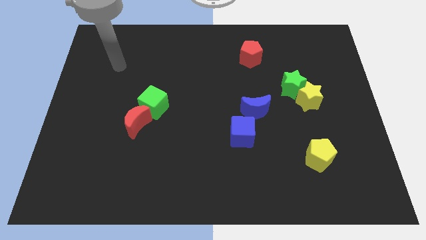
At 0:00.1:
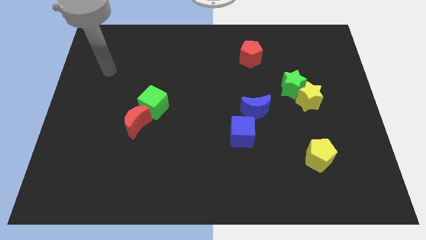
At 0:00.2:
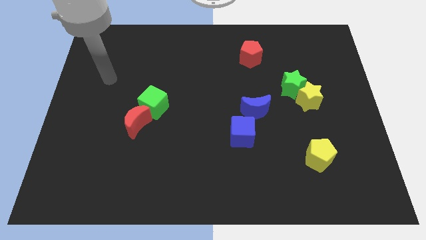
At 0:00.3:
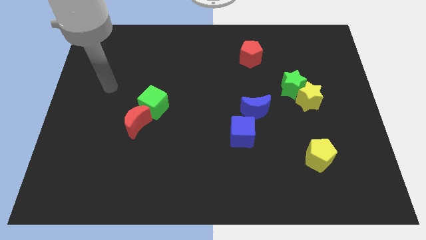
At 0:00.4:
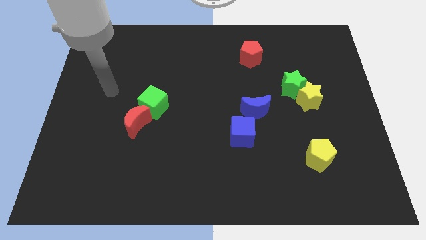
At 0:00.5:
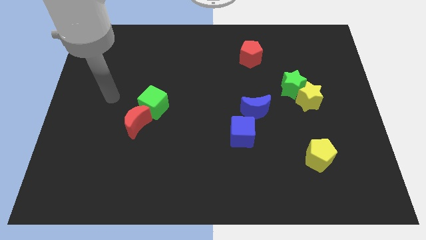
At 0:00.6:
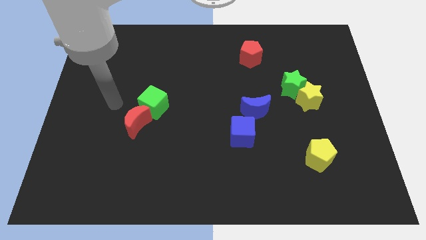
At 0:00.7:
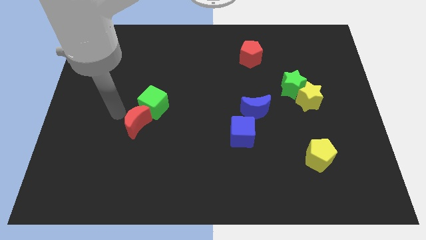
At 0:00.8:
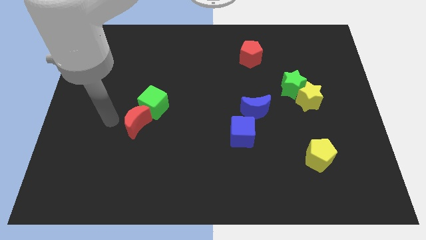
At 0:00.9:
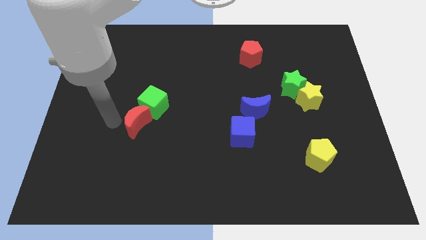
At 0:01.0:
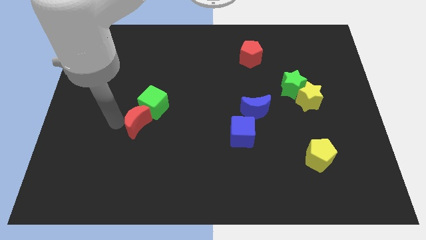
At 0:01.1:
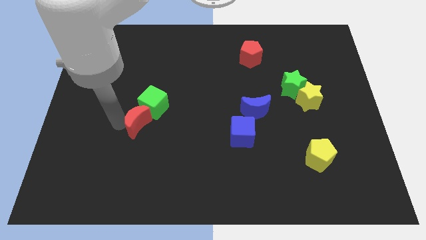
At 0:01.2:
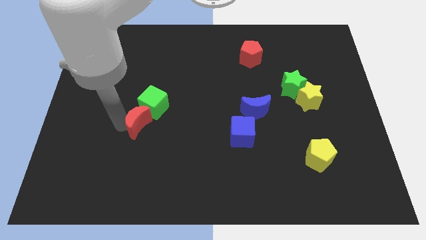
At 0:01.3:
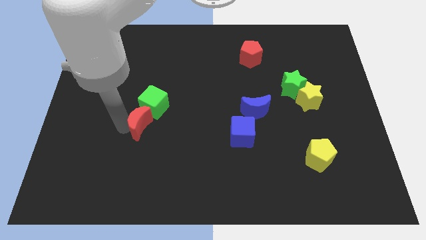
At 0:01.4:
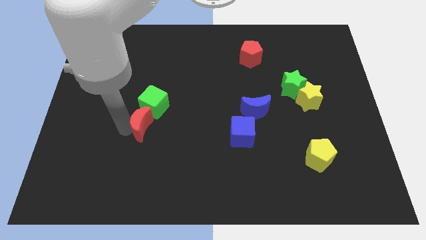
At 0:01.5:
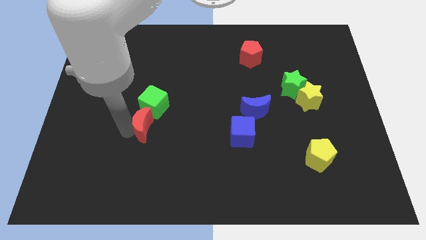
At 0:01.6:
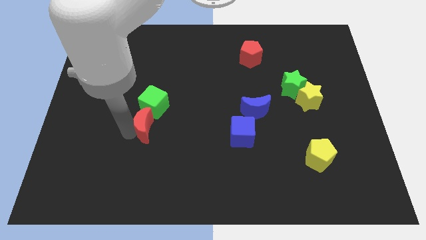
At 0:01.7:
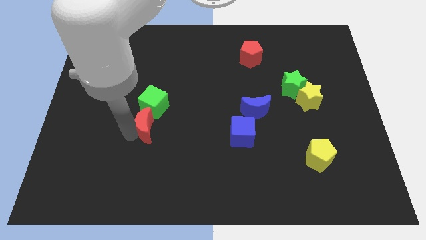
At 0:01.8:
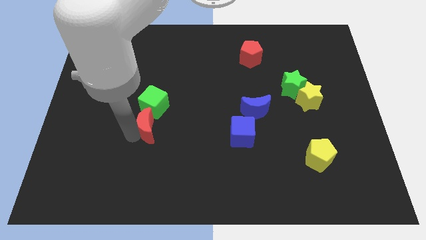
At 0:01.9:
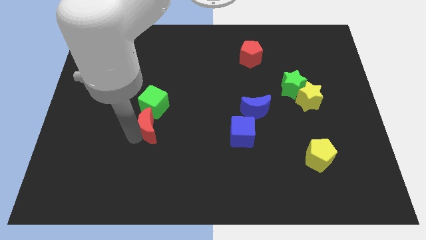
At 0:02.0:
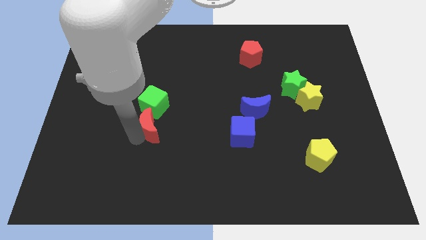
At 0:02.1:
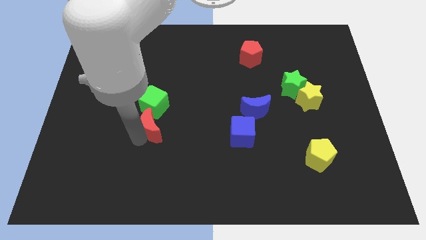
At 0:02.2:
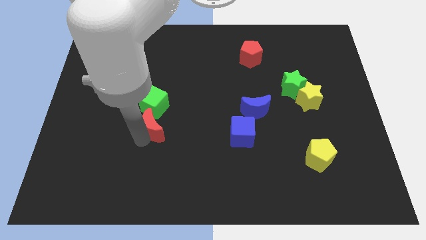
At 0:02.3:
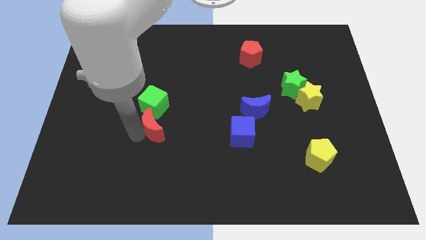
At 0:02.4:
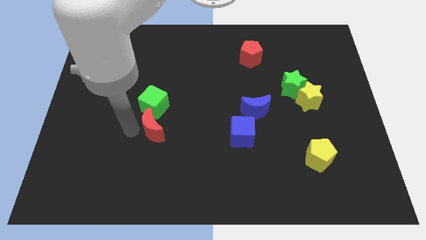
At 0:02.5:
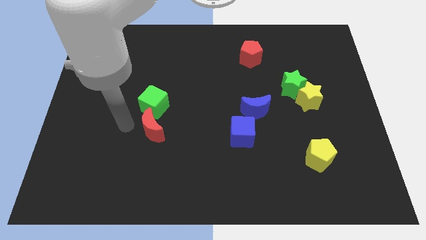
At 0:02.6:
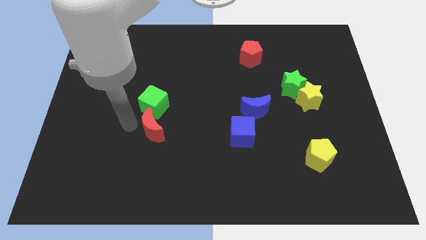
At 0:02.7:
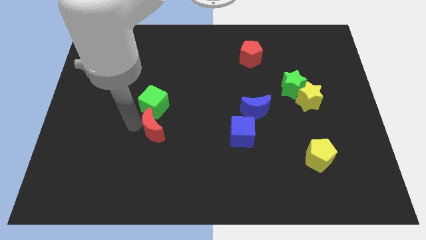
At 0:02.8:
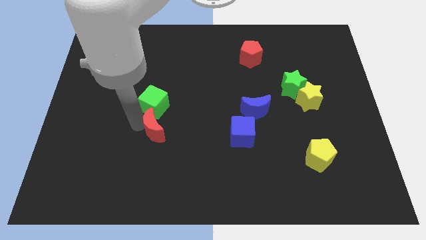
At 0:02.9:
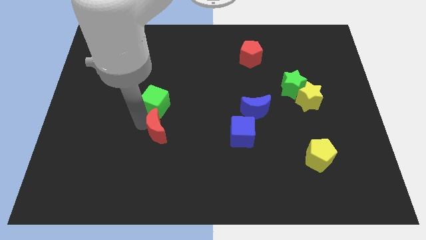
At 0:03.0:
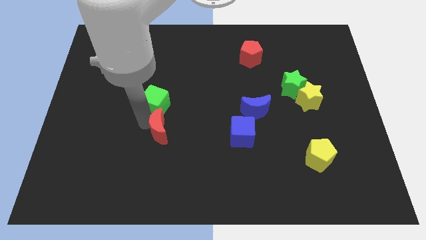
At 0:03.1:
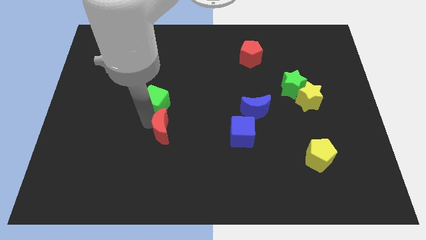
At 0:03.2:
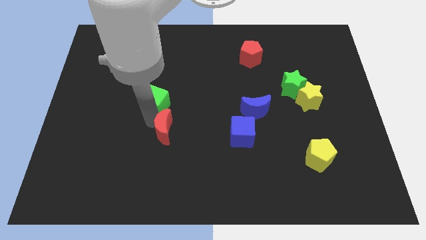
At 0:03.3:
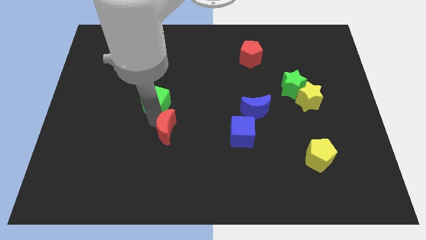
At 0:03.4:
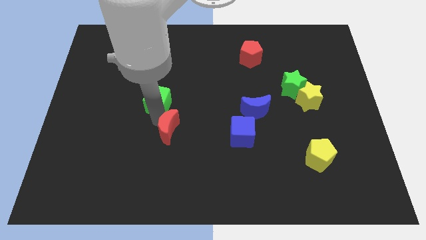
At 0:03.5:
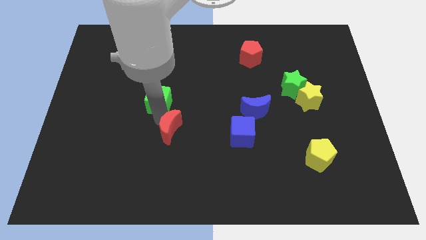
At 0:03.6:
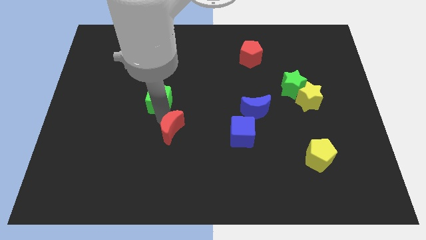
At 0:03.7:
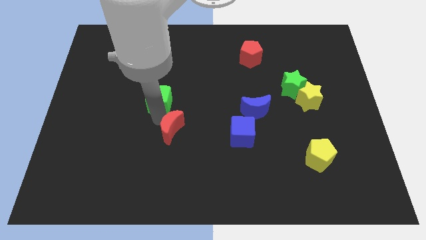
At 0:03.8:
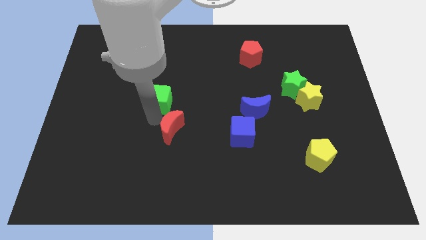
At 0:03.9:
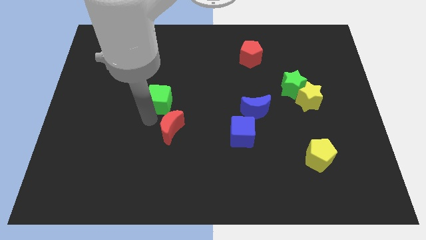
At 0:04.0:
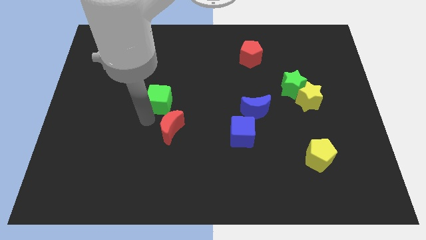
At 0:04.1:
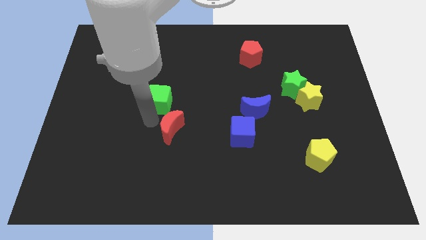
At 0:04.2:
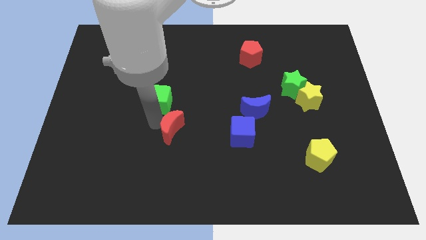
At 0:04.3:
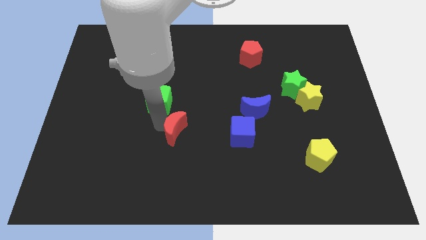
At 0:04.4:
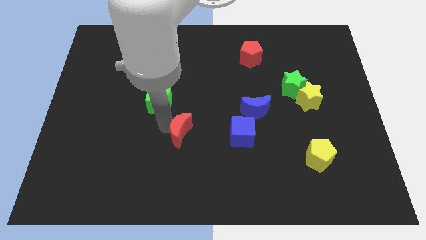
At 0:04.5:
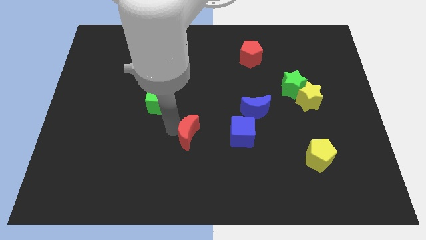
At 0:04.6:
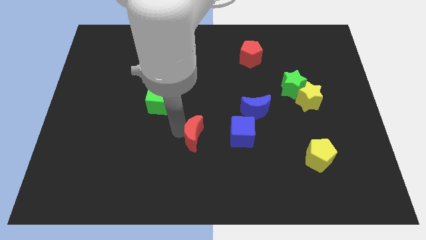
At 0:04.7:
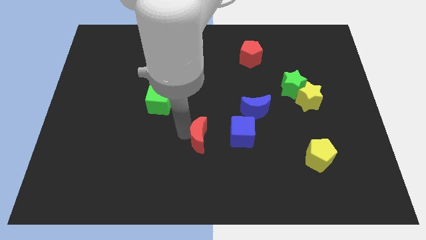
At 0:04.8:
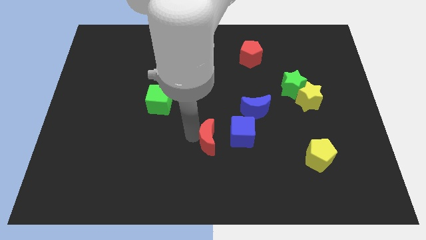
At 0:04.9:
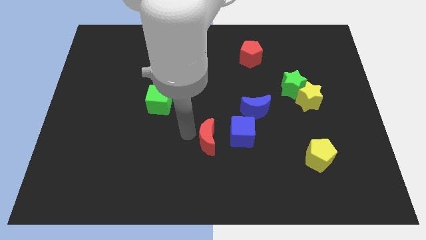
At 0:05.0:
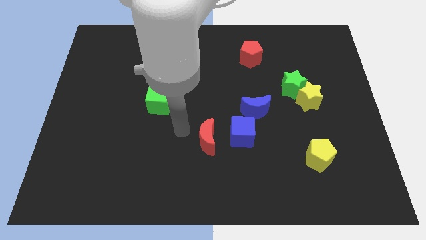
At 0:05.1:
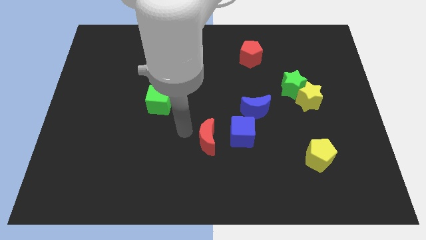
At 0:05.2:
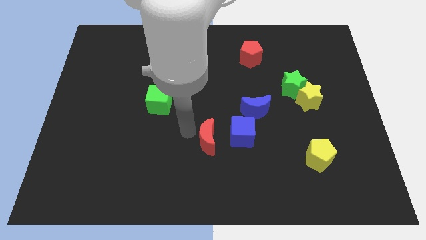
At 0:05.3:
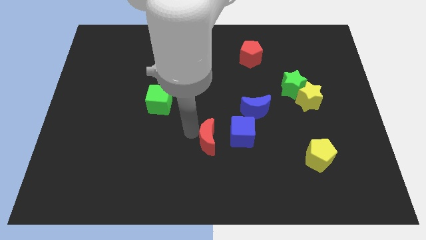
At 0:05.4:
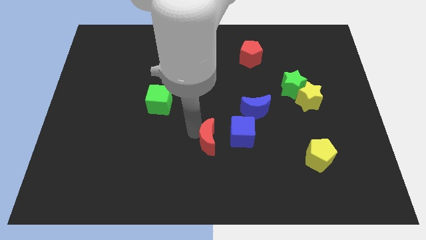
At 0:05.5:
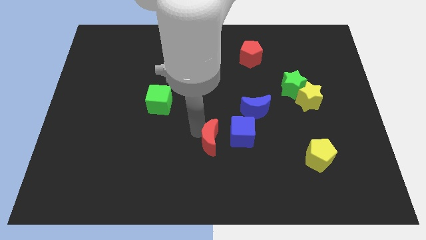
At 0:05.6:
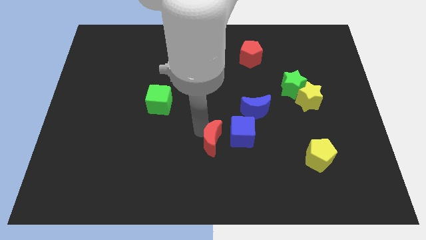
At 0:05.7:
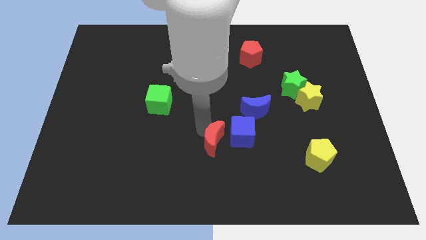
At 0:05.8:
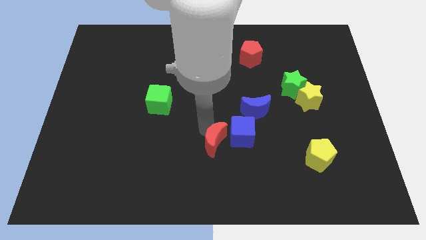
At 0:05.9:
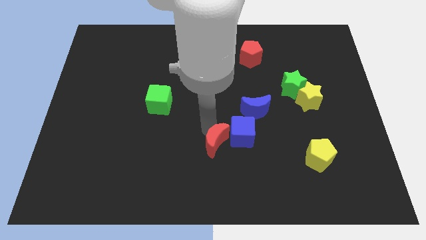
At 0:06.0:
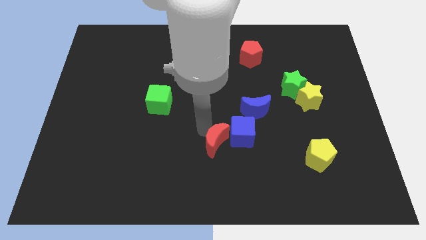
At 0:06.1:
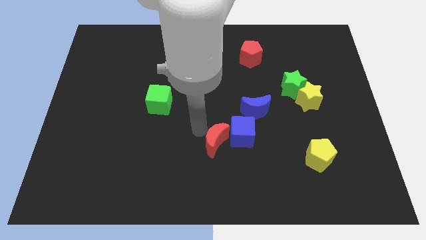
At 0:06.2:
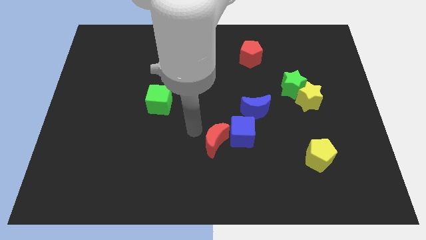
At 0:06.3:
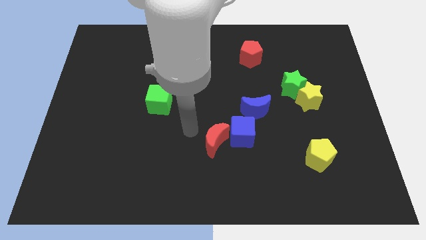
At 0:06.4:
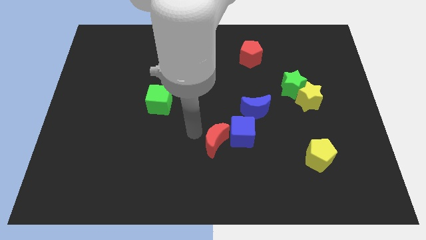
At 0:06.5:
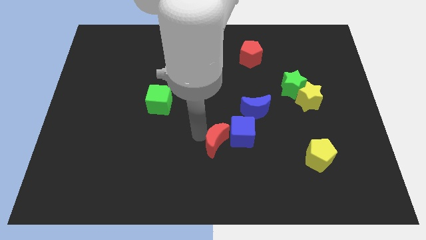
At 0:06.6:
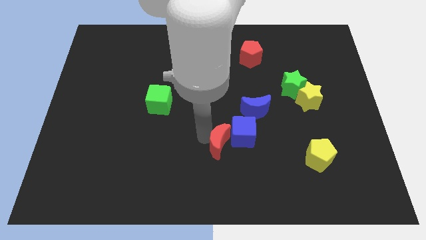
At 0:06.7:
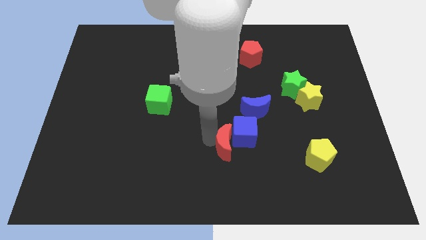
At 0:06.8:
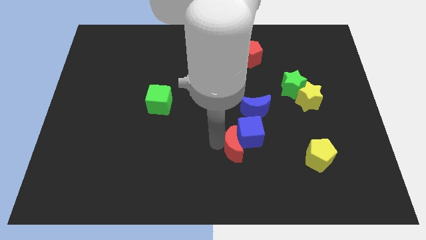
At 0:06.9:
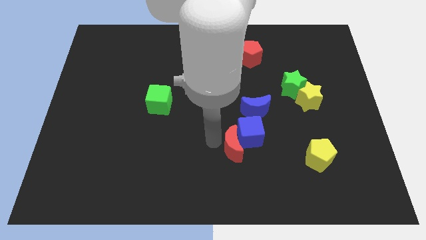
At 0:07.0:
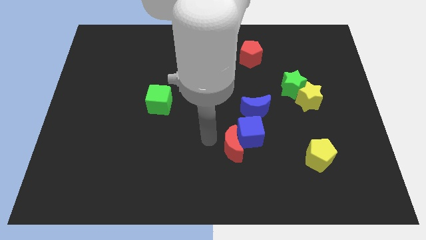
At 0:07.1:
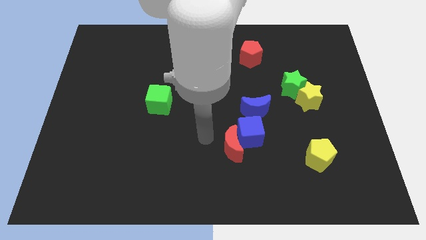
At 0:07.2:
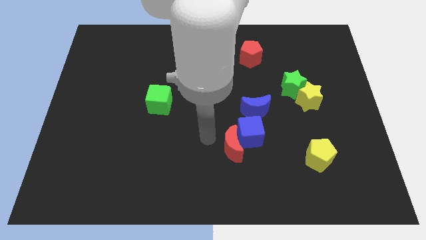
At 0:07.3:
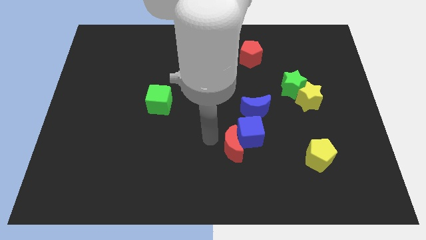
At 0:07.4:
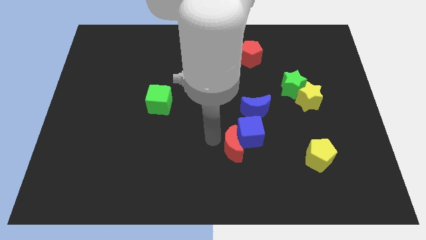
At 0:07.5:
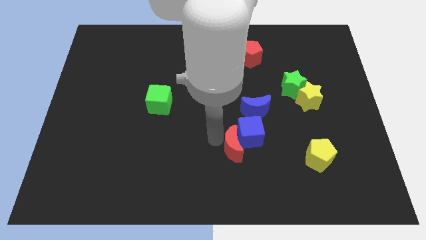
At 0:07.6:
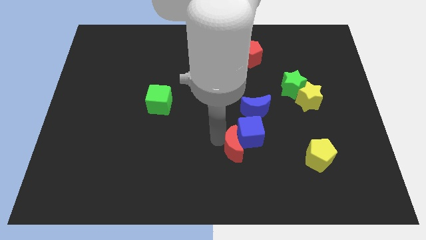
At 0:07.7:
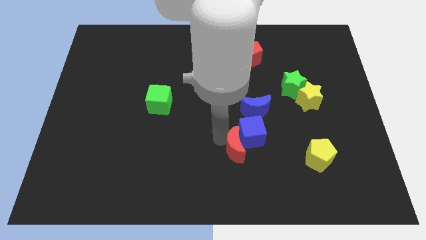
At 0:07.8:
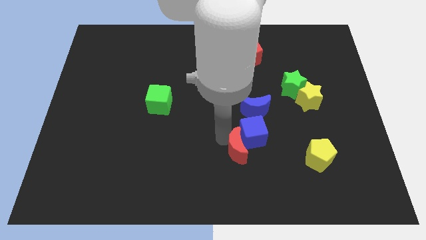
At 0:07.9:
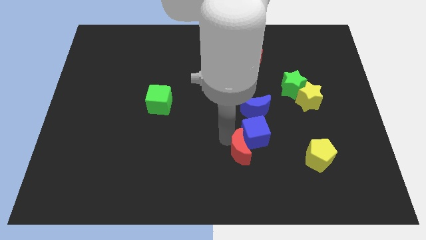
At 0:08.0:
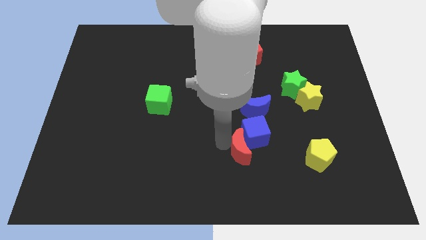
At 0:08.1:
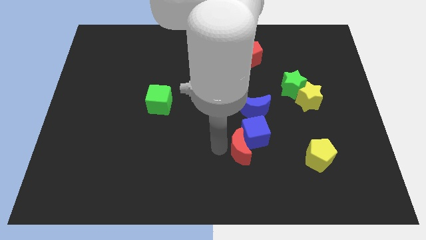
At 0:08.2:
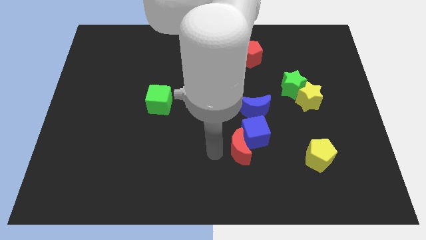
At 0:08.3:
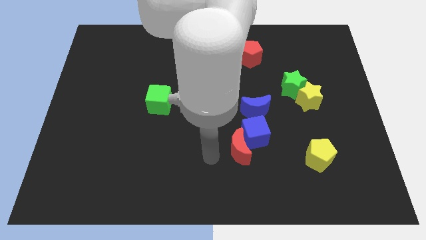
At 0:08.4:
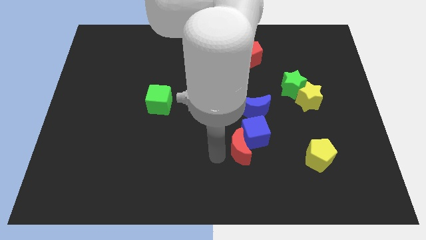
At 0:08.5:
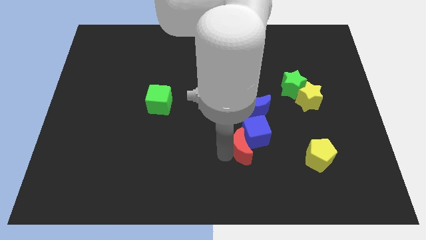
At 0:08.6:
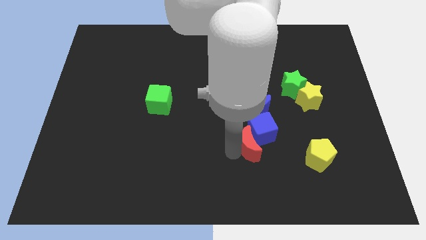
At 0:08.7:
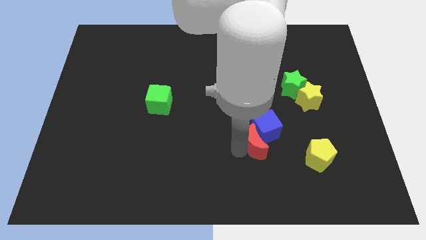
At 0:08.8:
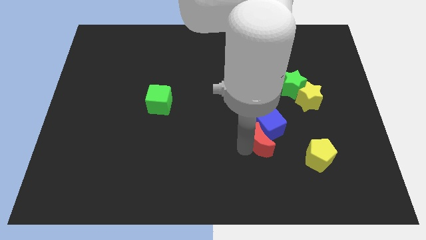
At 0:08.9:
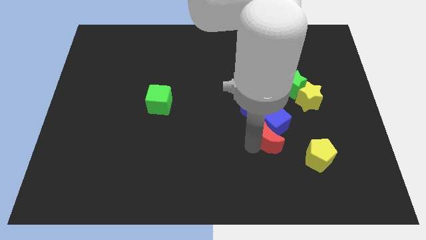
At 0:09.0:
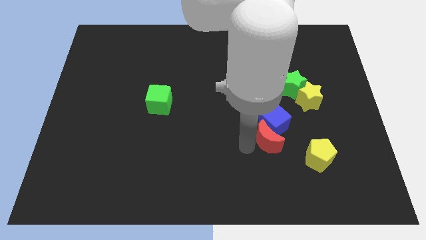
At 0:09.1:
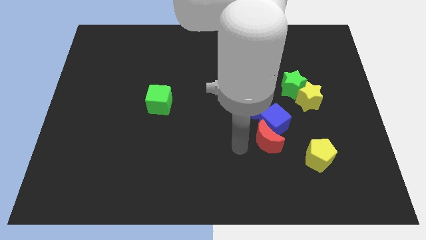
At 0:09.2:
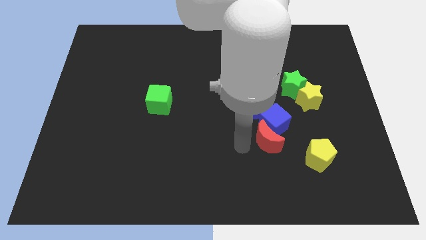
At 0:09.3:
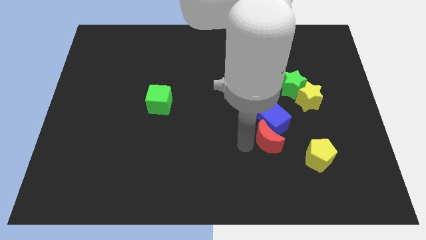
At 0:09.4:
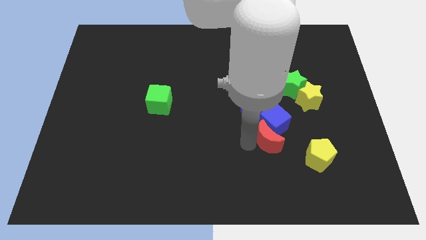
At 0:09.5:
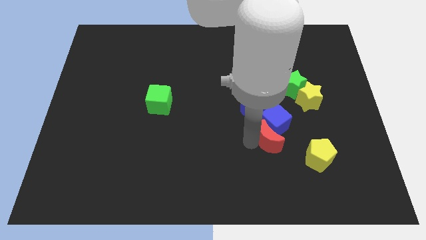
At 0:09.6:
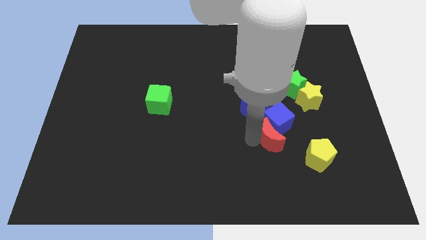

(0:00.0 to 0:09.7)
move the red moon to the top left side of the yellow pentagon
